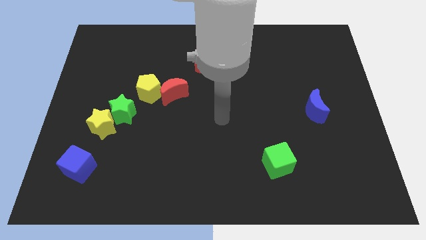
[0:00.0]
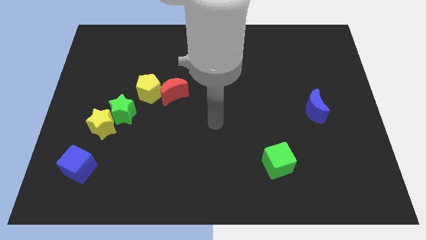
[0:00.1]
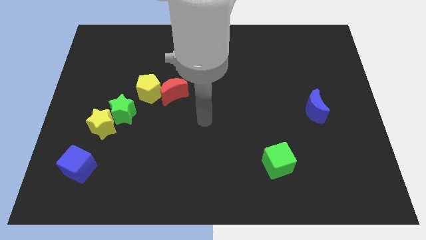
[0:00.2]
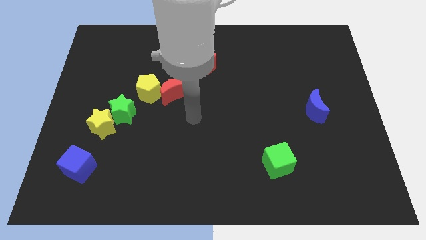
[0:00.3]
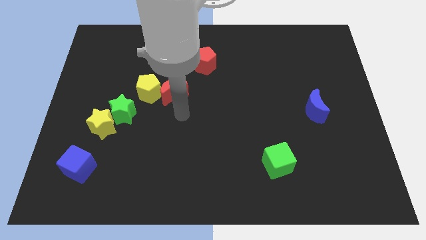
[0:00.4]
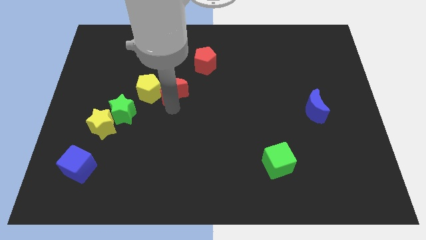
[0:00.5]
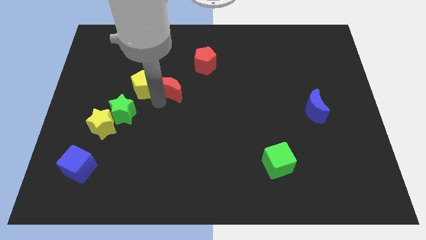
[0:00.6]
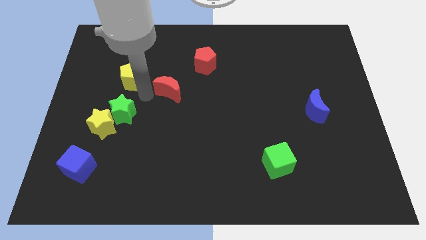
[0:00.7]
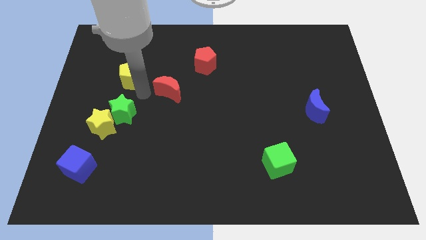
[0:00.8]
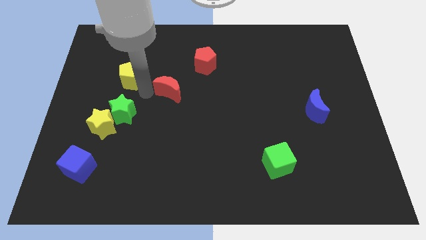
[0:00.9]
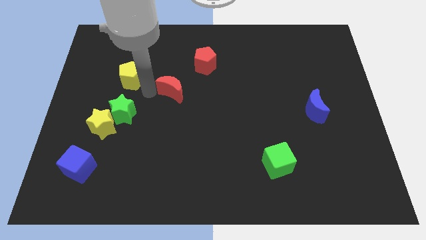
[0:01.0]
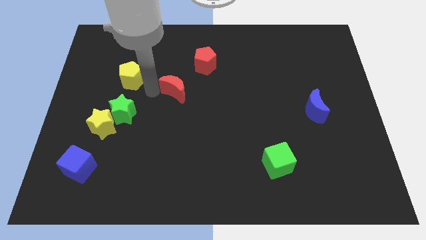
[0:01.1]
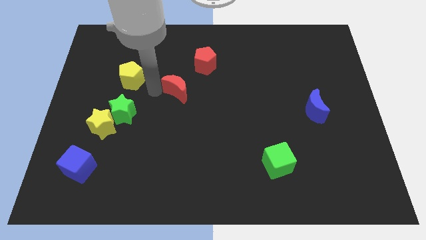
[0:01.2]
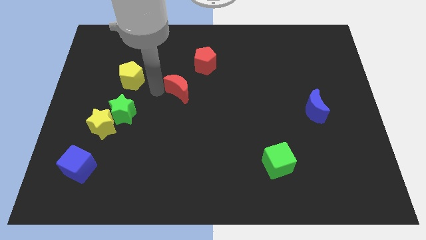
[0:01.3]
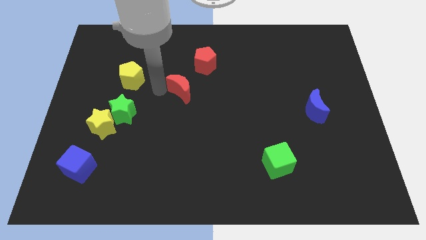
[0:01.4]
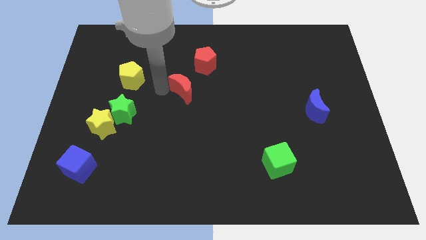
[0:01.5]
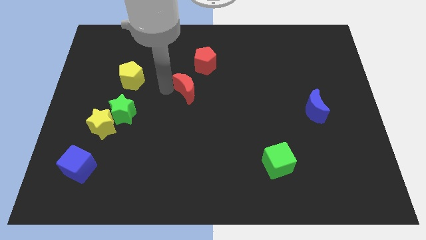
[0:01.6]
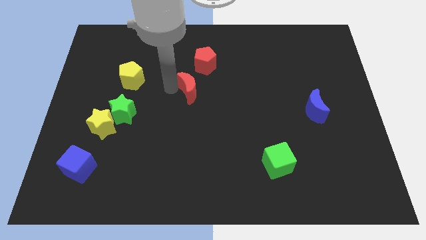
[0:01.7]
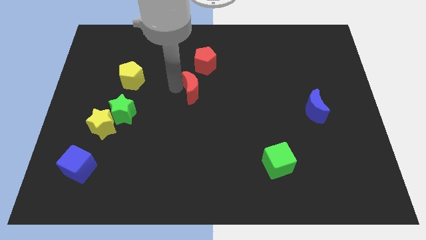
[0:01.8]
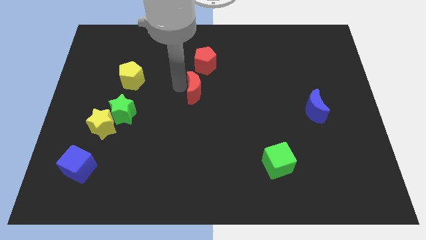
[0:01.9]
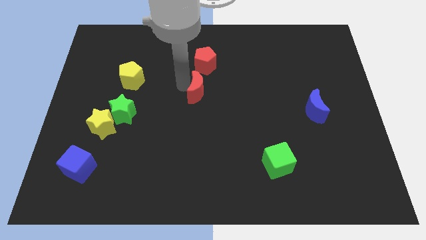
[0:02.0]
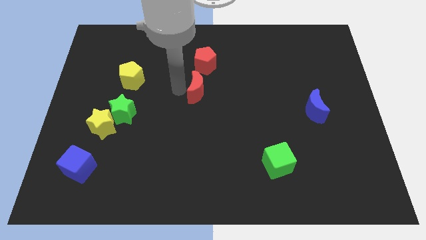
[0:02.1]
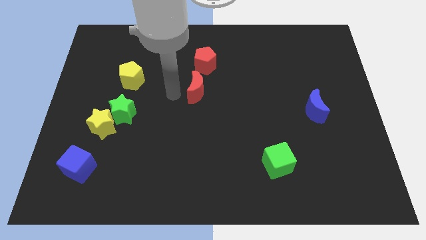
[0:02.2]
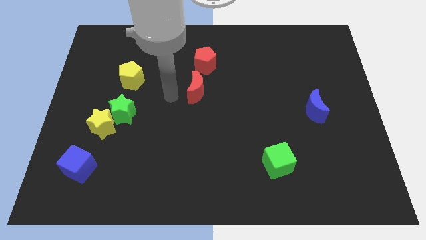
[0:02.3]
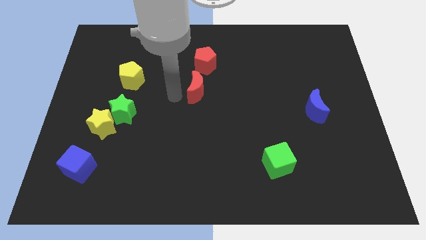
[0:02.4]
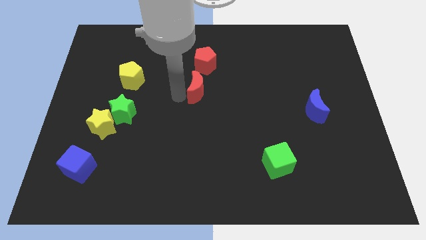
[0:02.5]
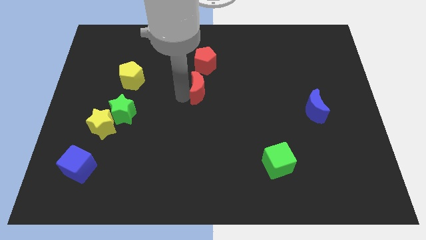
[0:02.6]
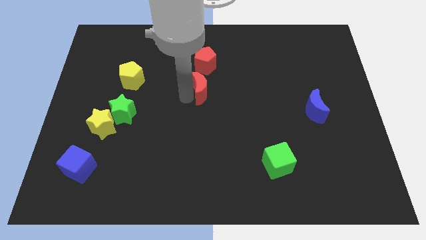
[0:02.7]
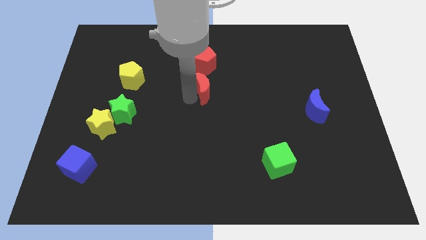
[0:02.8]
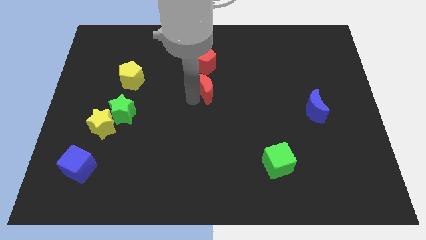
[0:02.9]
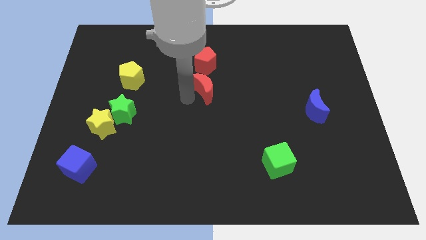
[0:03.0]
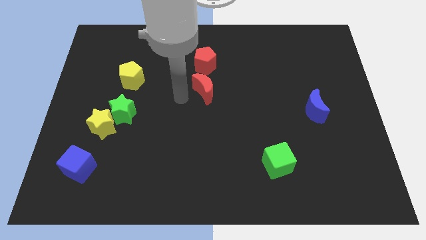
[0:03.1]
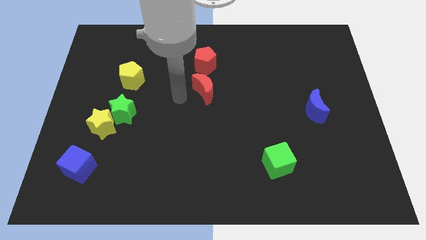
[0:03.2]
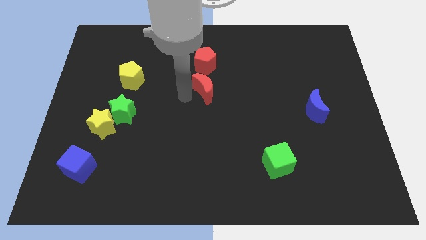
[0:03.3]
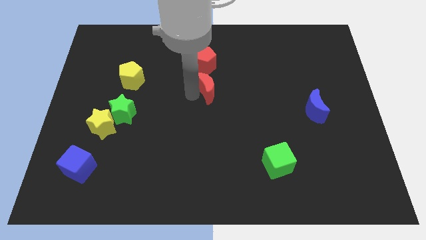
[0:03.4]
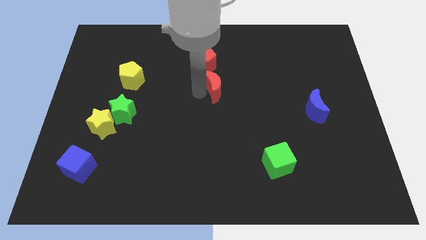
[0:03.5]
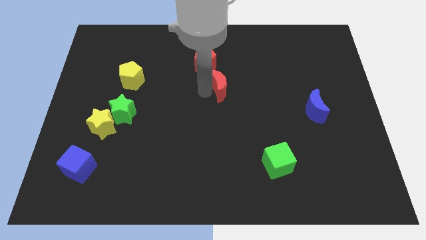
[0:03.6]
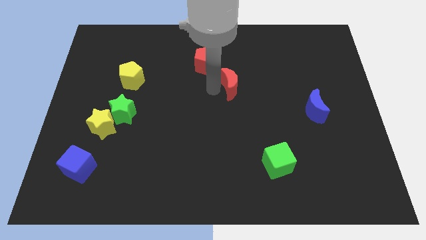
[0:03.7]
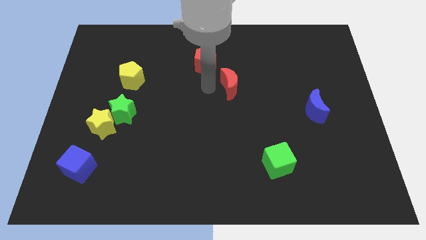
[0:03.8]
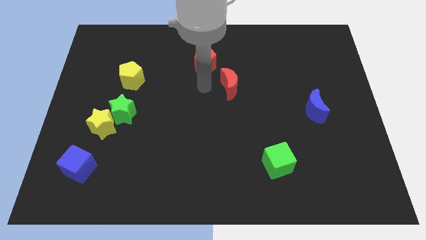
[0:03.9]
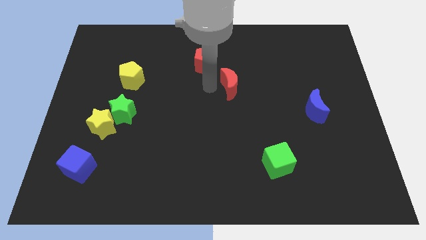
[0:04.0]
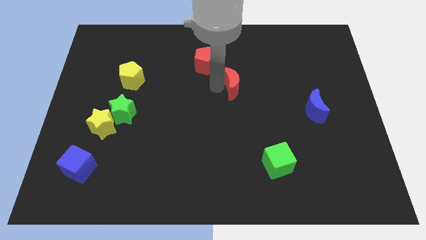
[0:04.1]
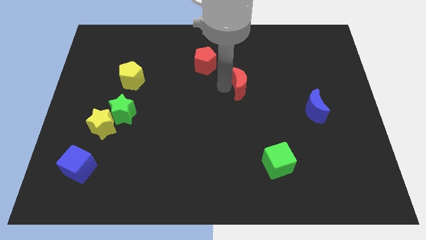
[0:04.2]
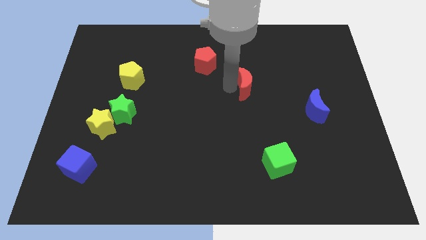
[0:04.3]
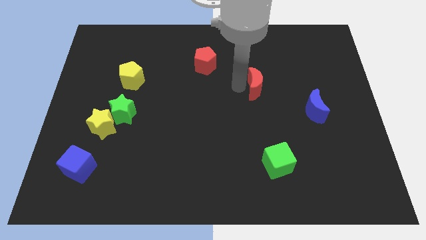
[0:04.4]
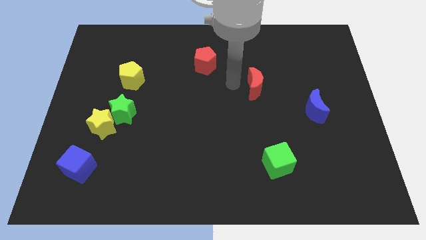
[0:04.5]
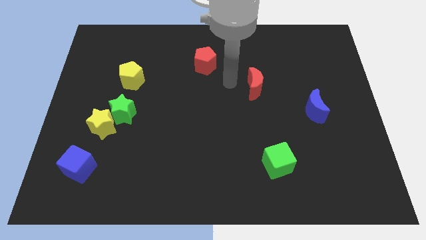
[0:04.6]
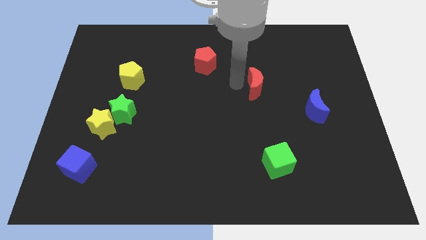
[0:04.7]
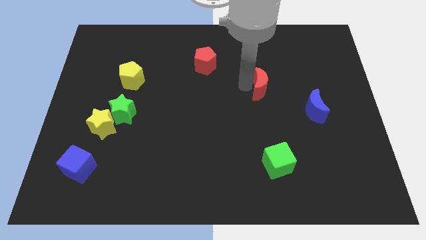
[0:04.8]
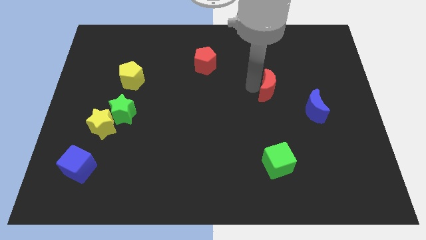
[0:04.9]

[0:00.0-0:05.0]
slide the red moon to the top left of the blue moon

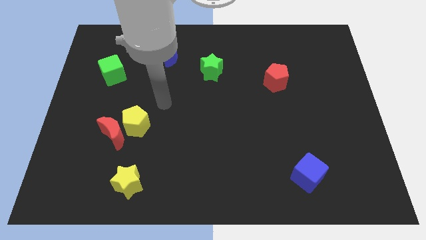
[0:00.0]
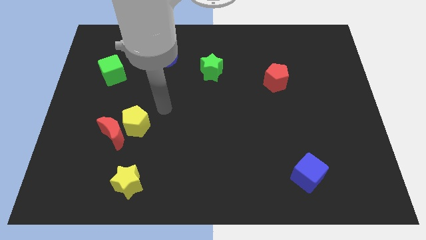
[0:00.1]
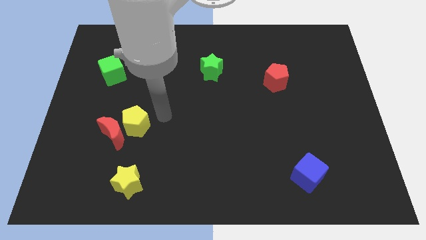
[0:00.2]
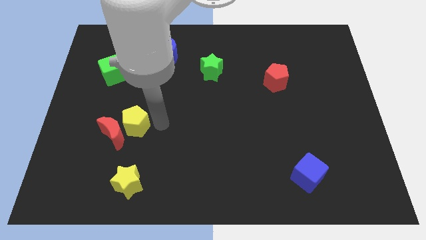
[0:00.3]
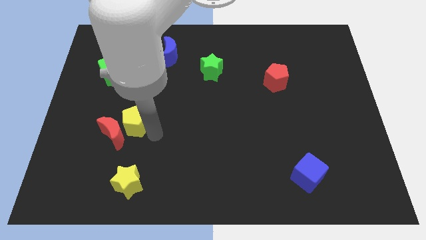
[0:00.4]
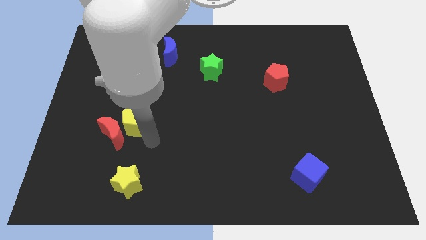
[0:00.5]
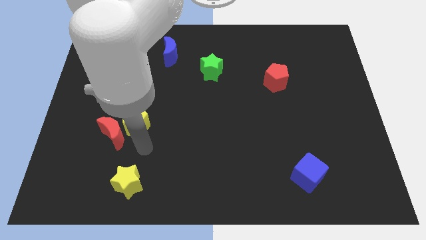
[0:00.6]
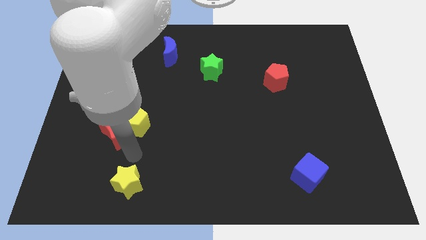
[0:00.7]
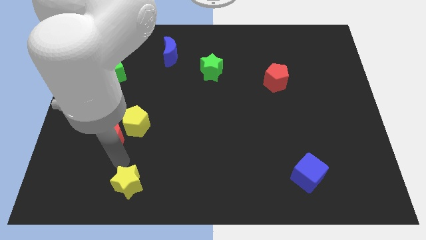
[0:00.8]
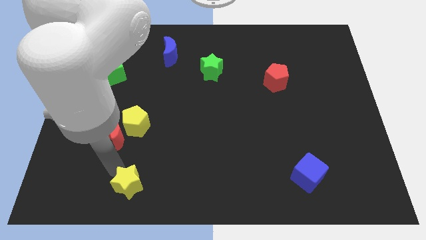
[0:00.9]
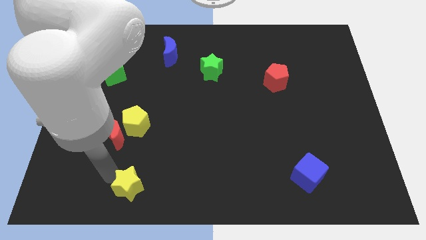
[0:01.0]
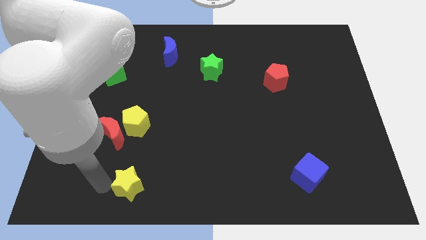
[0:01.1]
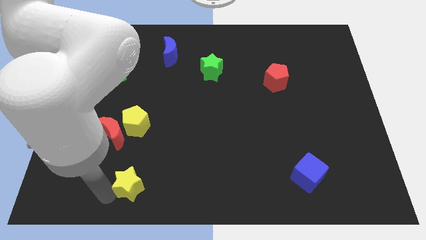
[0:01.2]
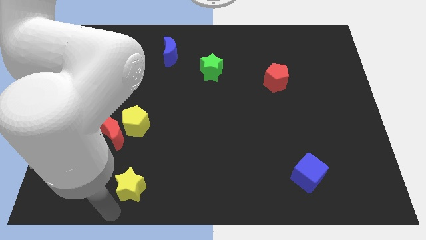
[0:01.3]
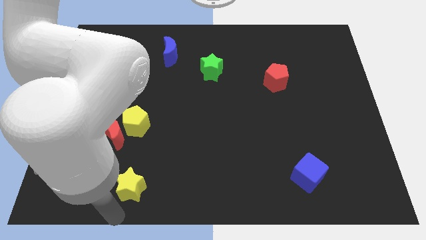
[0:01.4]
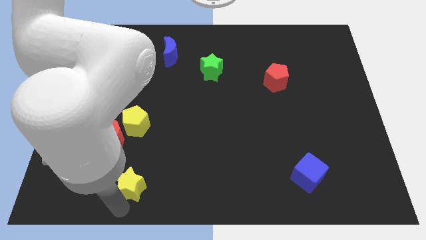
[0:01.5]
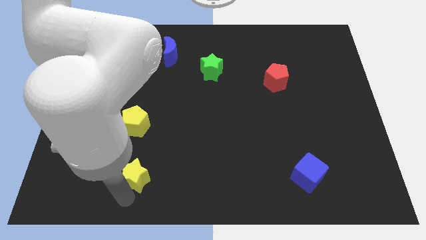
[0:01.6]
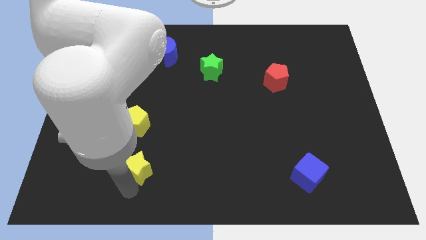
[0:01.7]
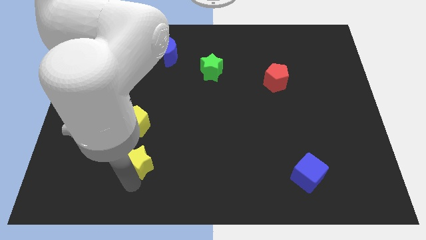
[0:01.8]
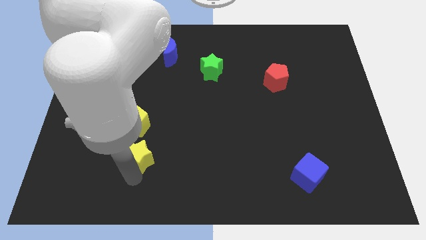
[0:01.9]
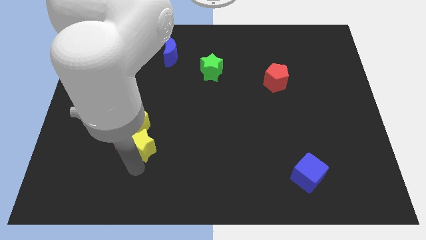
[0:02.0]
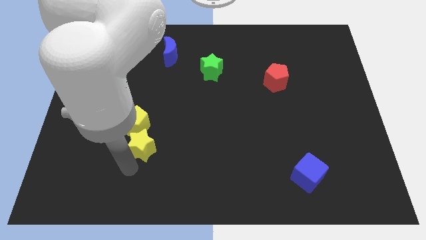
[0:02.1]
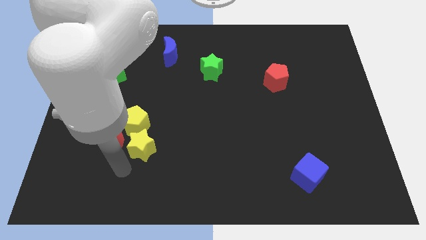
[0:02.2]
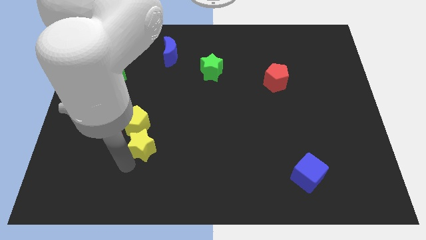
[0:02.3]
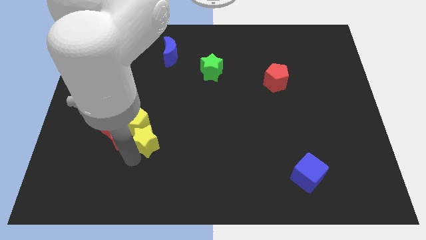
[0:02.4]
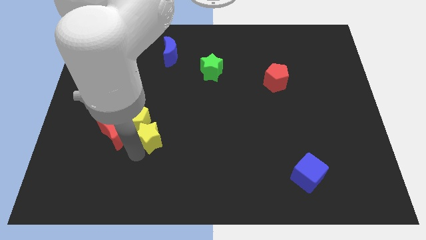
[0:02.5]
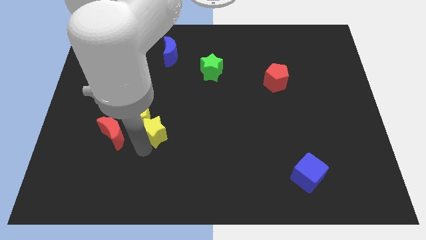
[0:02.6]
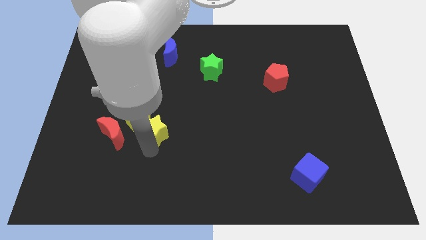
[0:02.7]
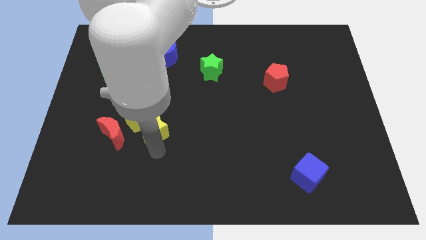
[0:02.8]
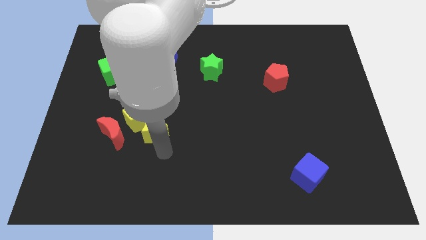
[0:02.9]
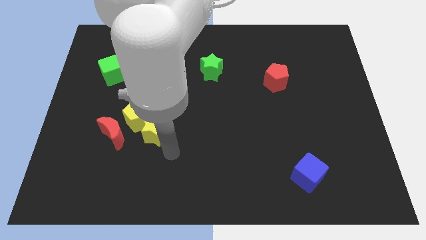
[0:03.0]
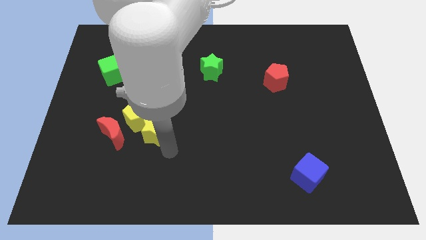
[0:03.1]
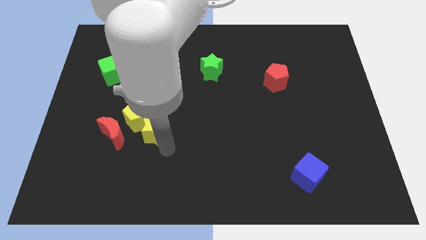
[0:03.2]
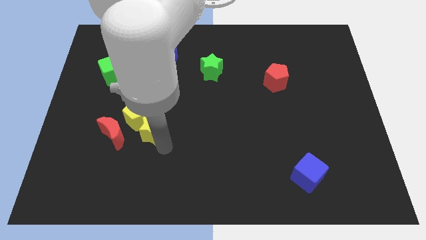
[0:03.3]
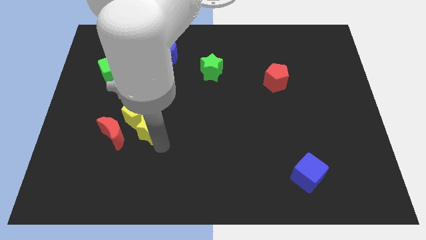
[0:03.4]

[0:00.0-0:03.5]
push the yellow star to the top right side of the red moon
